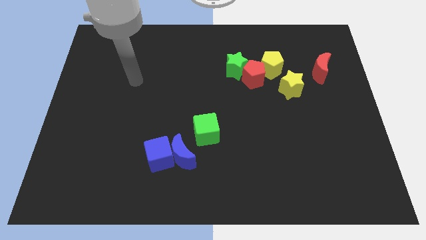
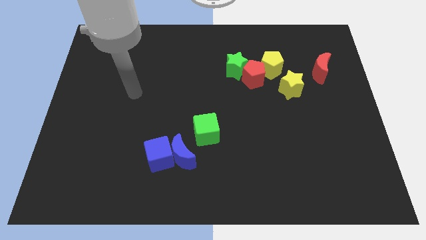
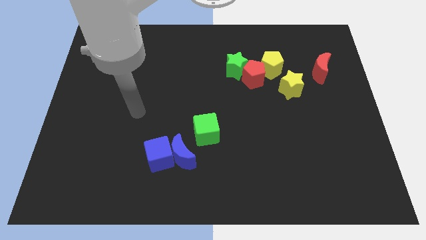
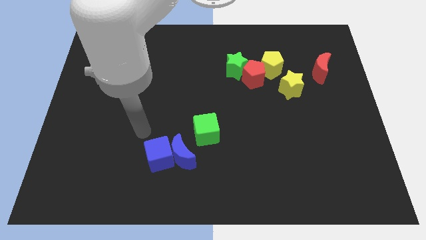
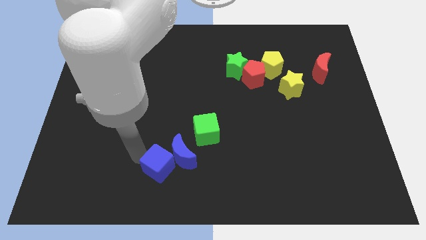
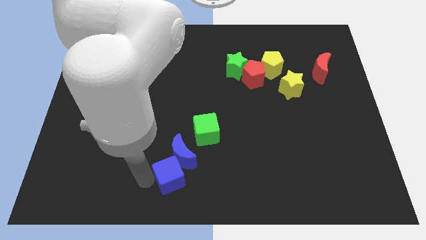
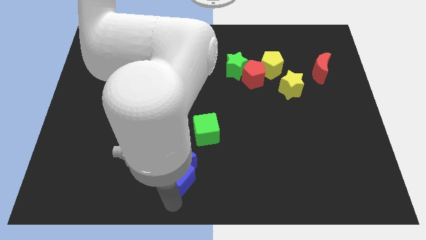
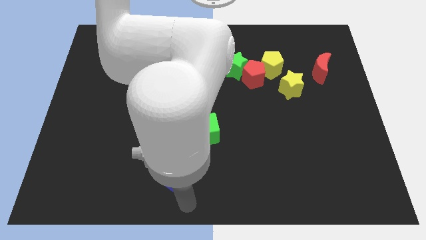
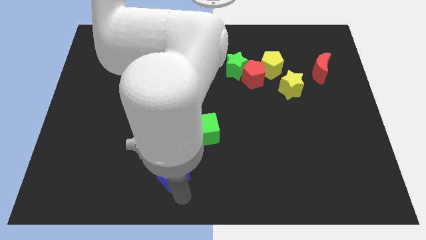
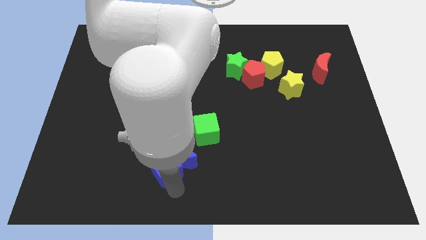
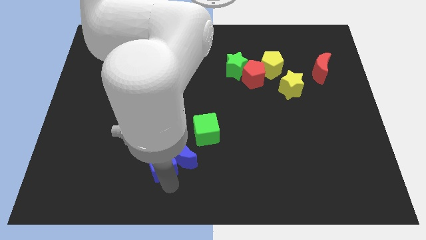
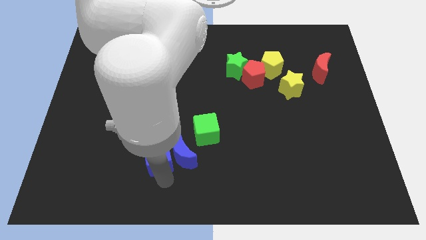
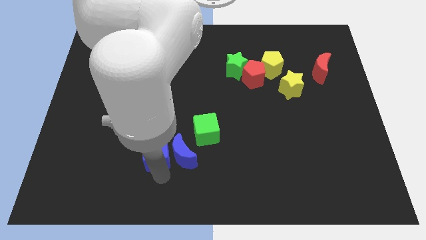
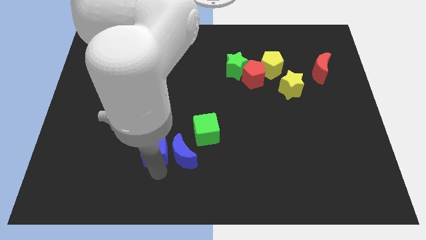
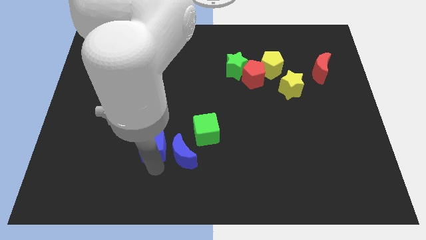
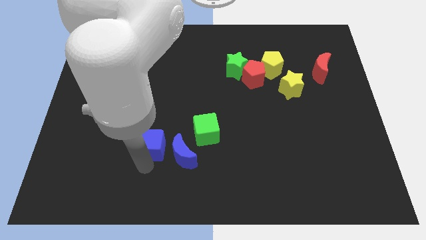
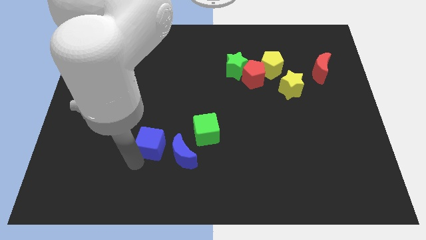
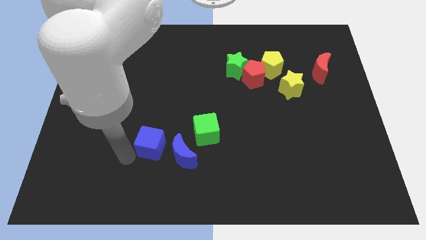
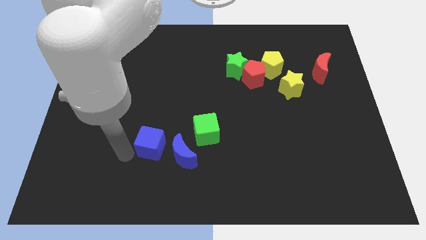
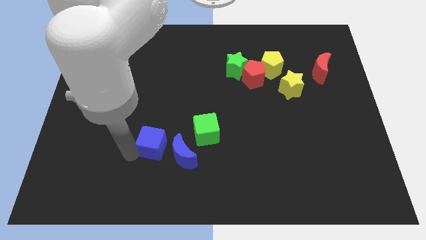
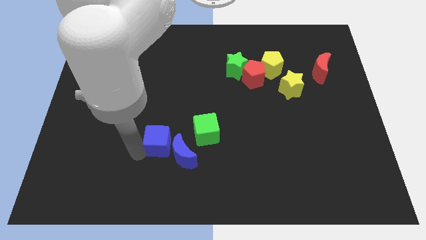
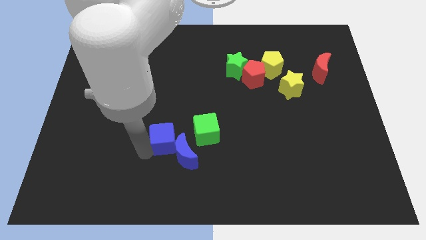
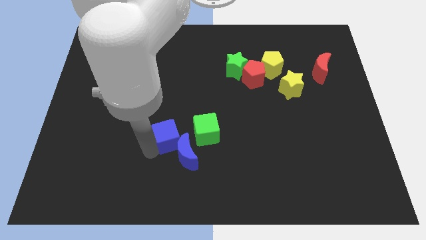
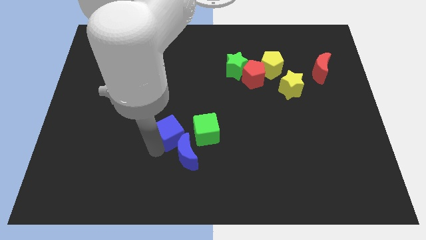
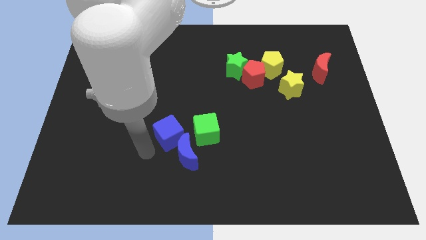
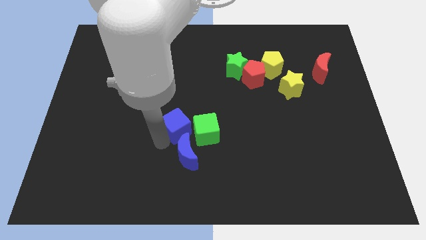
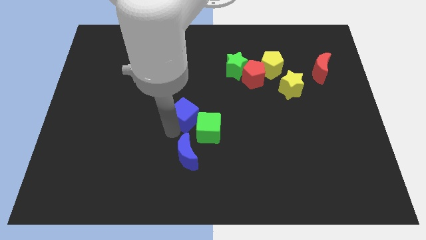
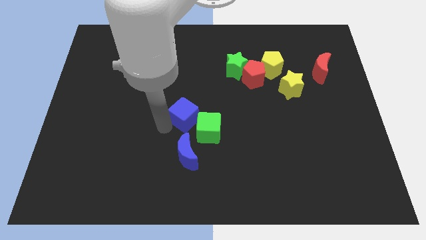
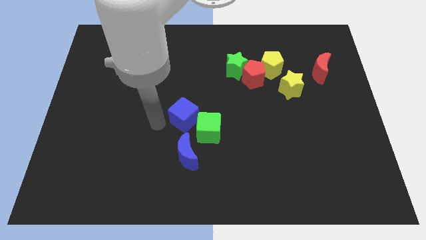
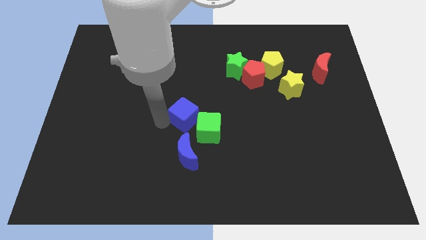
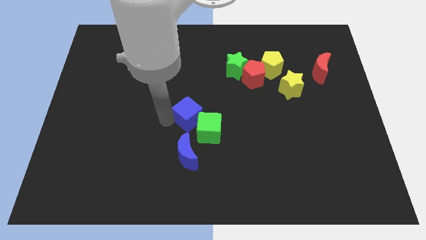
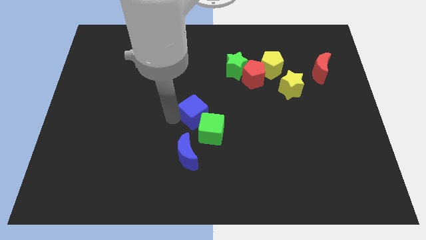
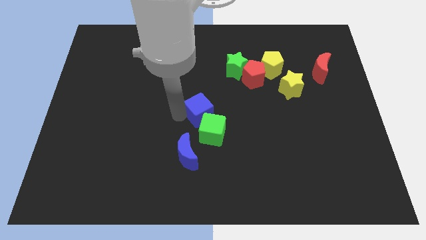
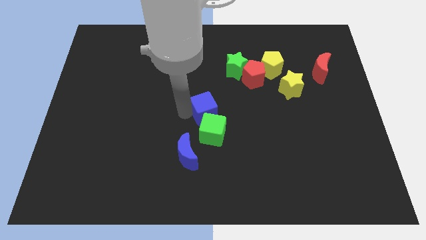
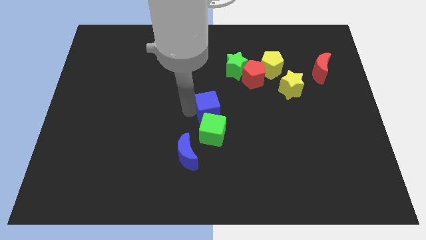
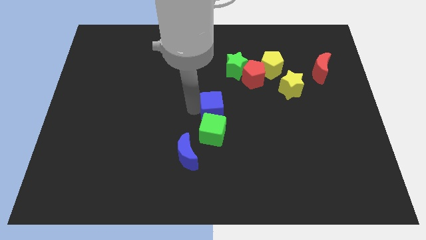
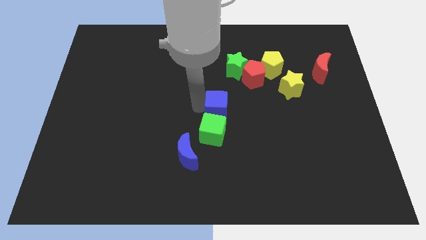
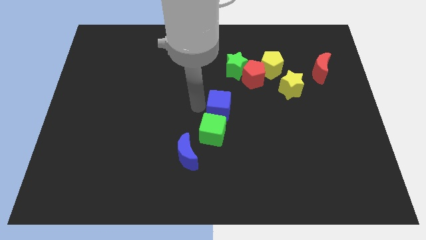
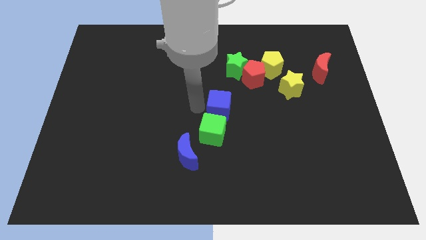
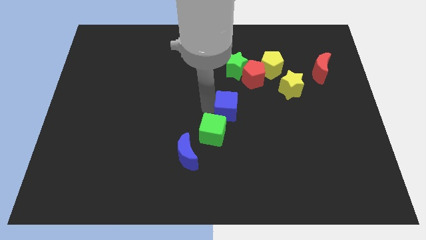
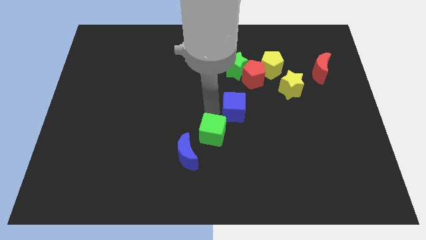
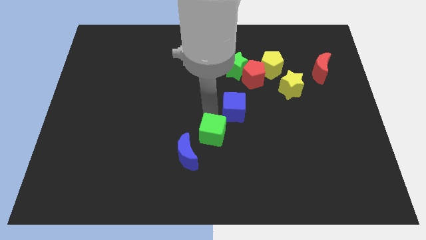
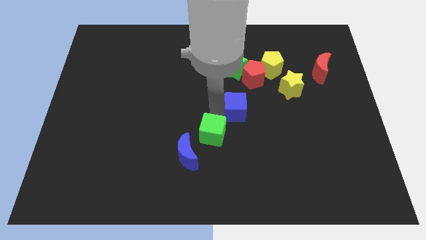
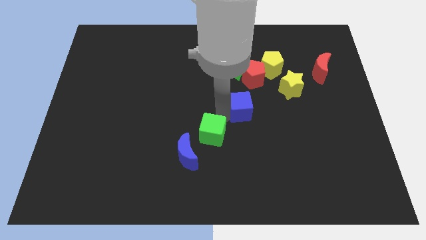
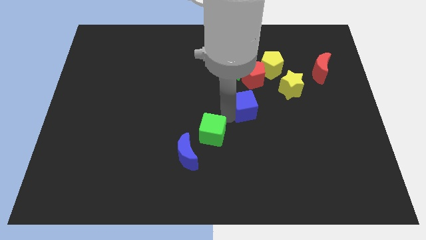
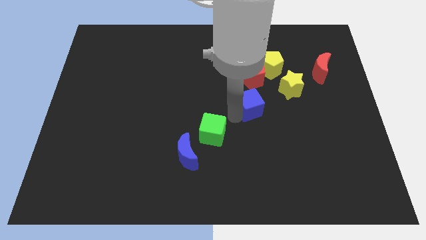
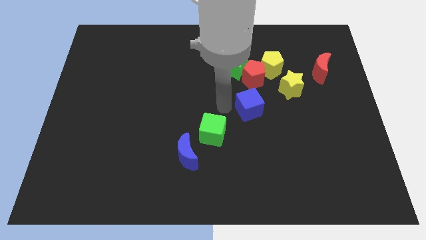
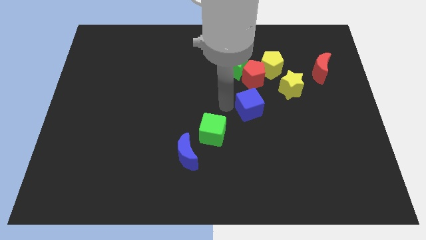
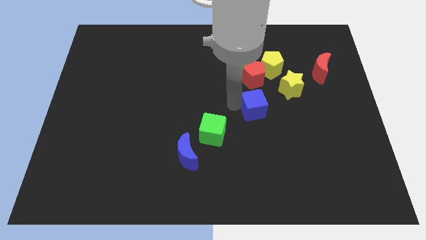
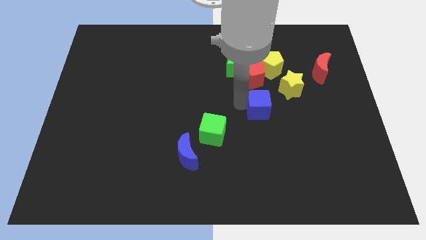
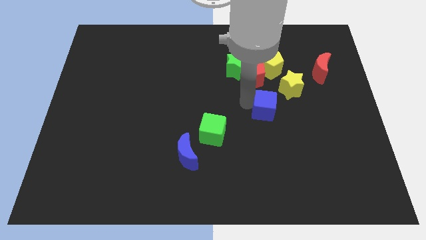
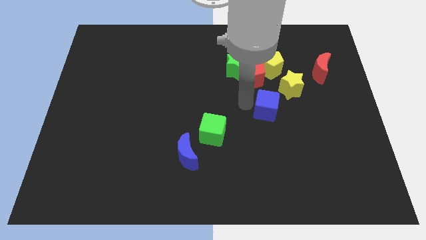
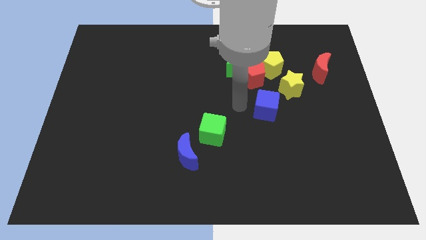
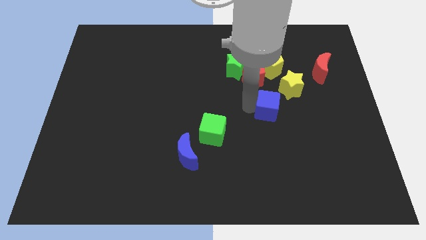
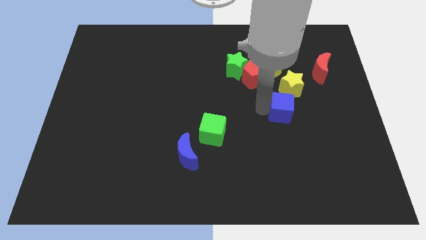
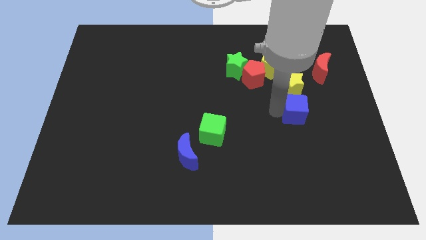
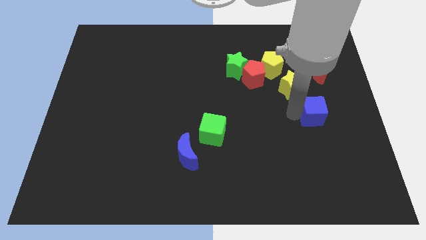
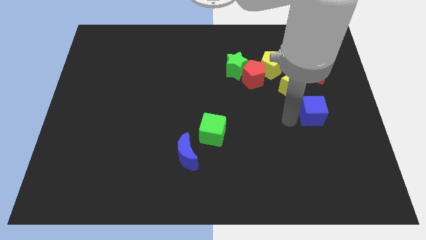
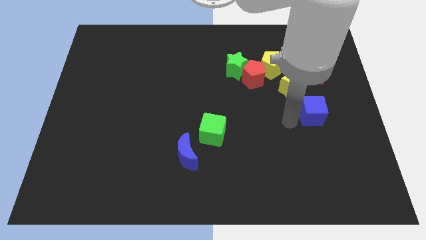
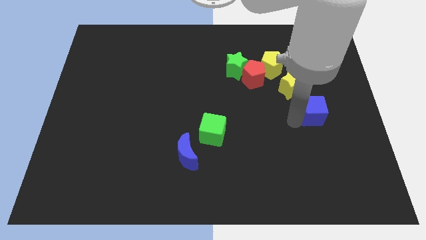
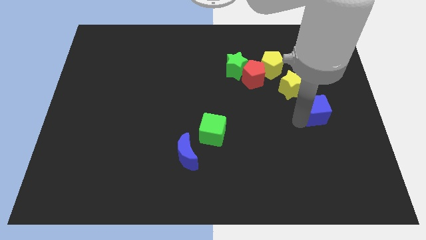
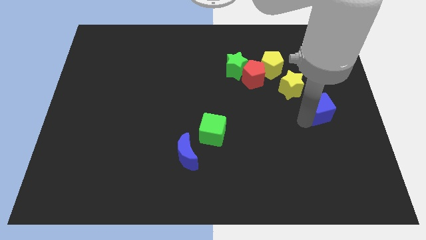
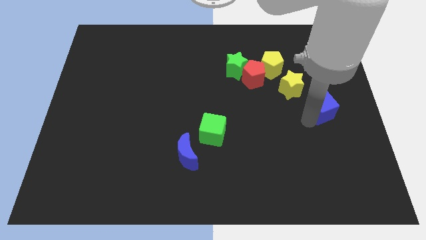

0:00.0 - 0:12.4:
move the blue cube to the center right
